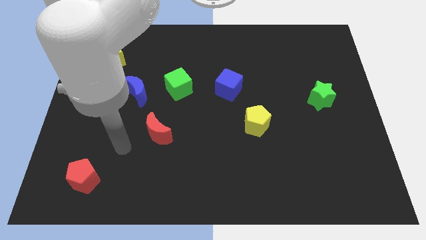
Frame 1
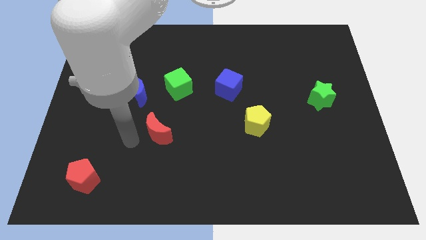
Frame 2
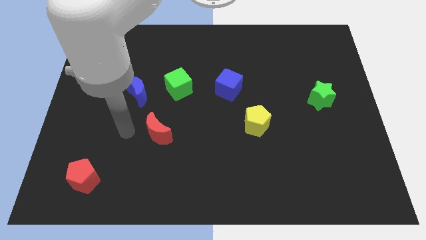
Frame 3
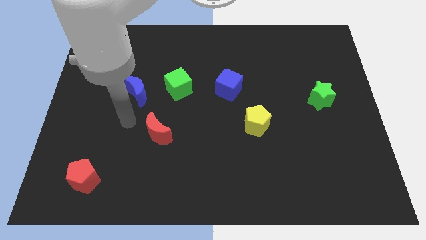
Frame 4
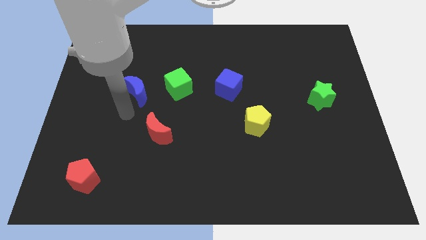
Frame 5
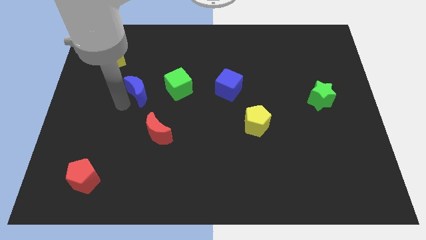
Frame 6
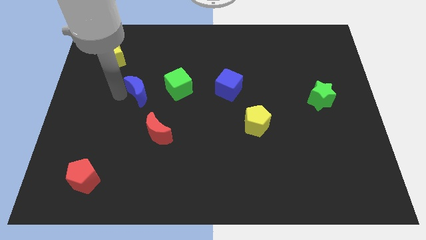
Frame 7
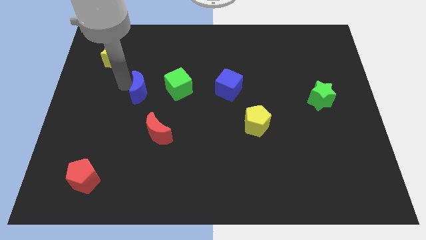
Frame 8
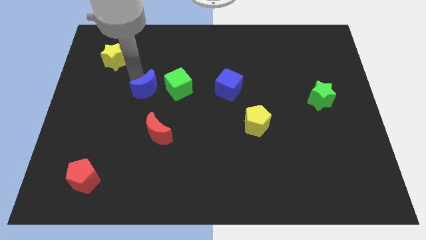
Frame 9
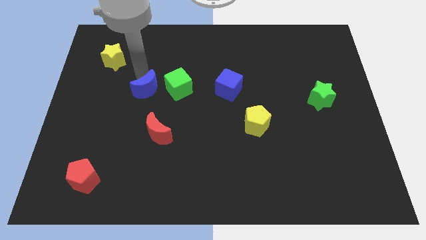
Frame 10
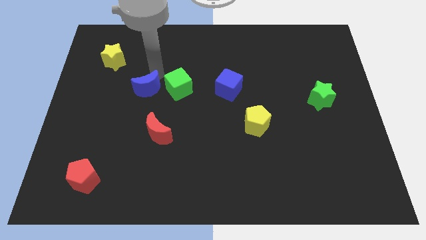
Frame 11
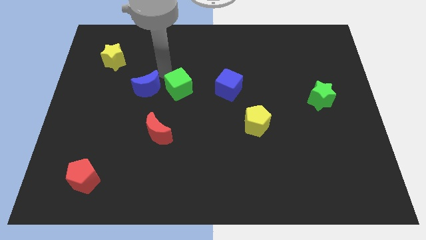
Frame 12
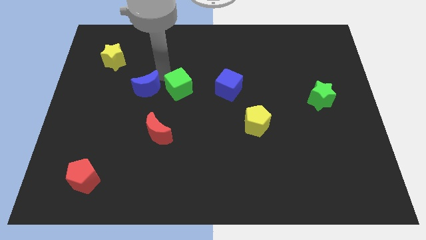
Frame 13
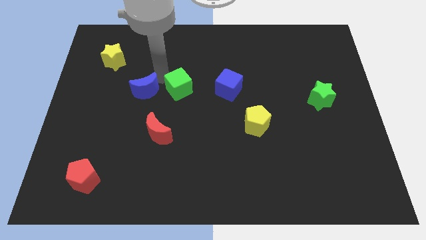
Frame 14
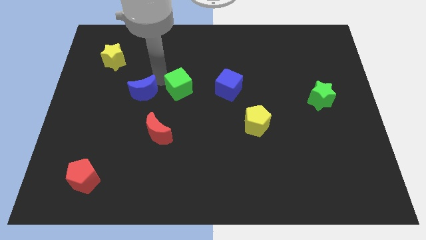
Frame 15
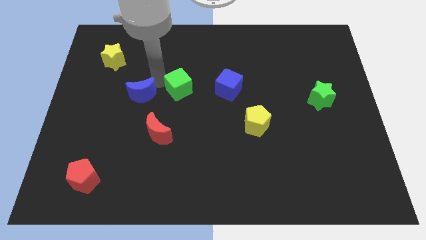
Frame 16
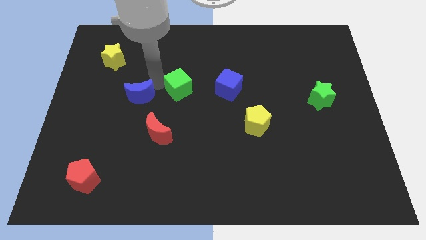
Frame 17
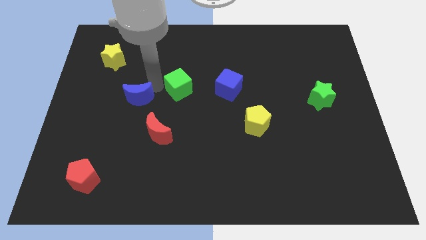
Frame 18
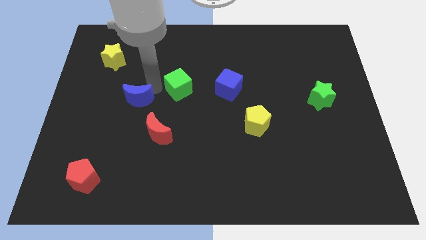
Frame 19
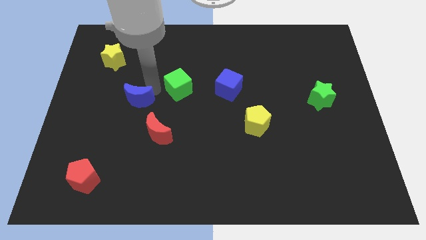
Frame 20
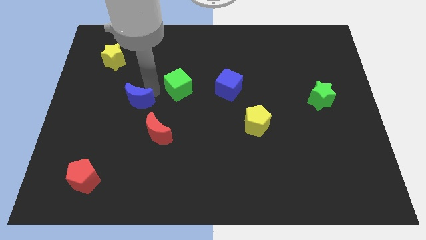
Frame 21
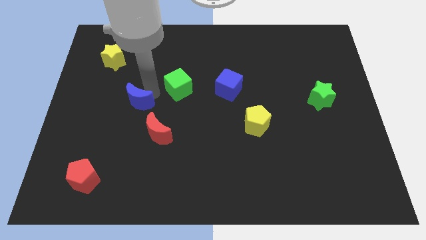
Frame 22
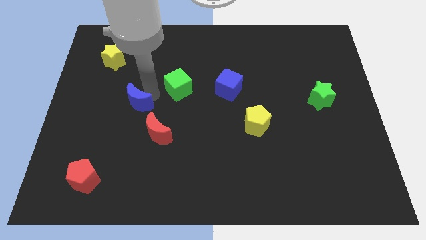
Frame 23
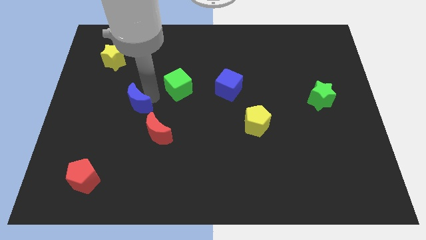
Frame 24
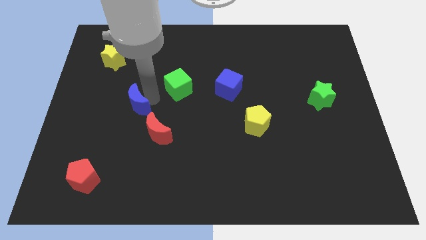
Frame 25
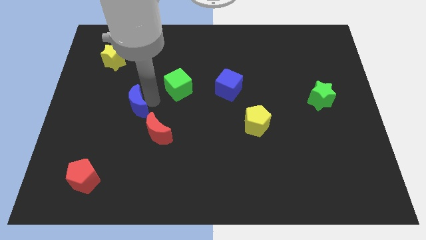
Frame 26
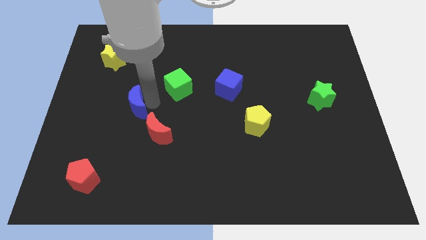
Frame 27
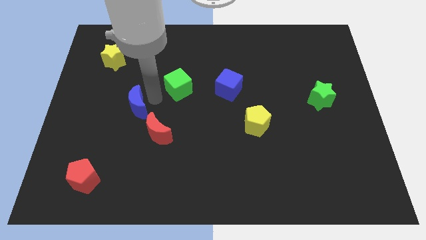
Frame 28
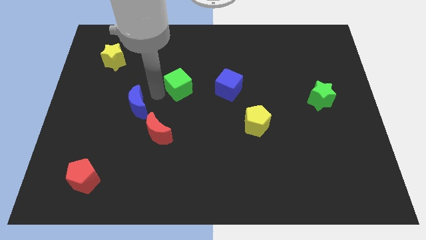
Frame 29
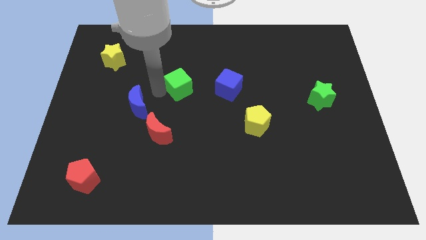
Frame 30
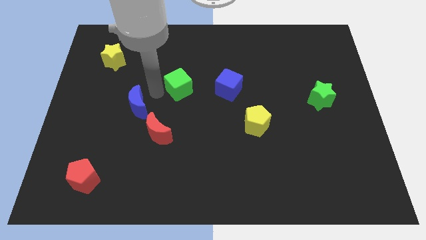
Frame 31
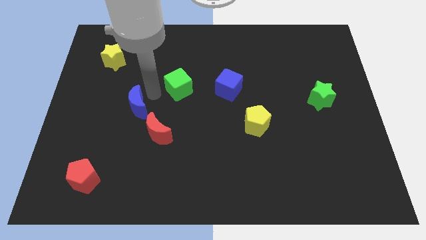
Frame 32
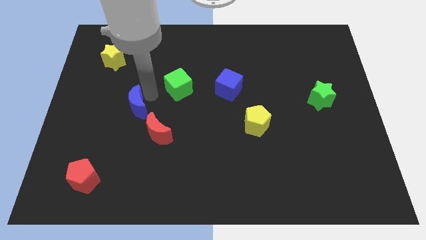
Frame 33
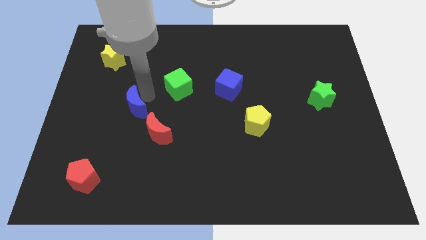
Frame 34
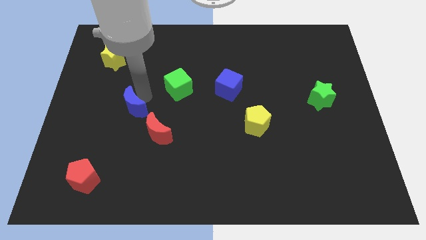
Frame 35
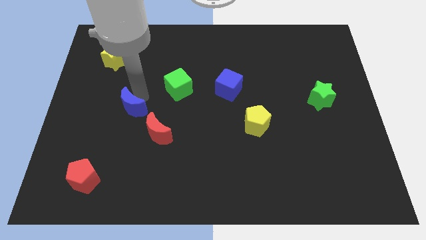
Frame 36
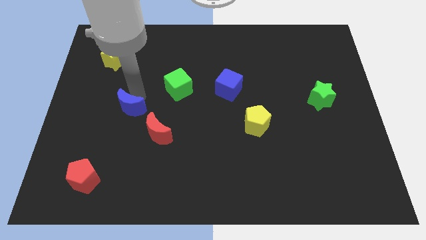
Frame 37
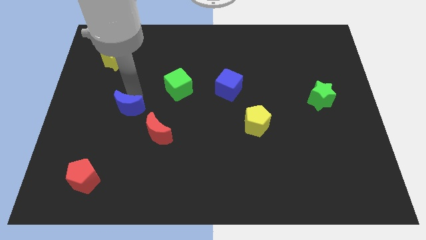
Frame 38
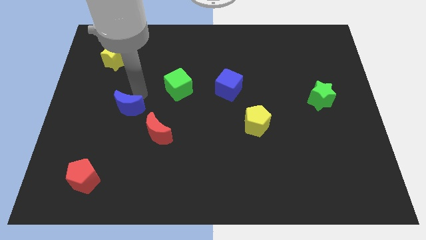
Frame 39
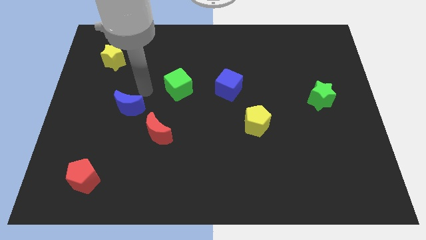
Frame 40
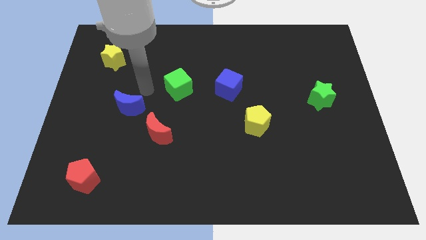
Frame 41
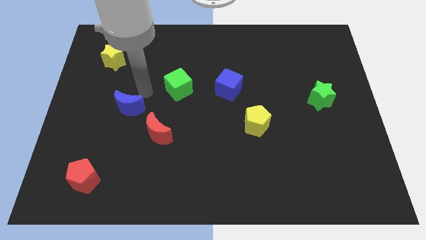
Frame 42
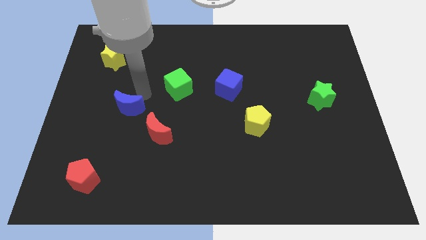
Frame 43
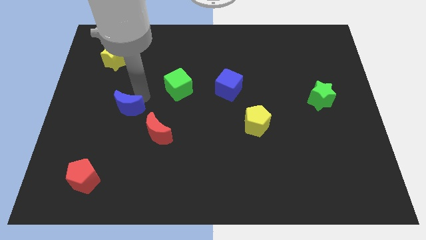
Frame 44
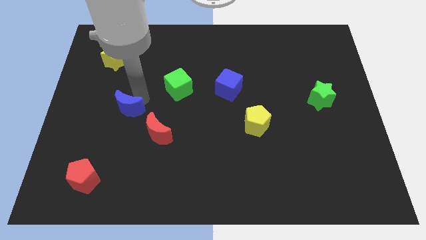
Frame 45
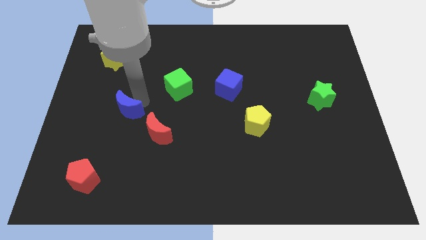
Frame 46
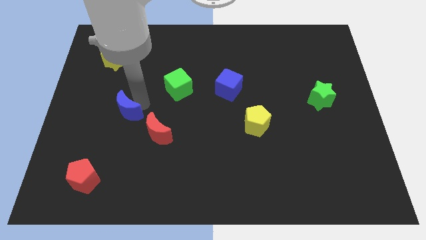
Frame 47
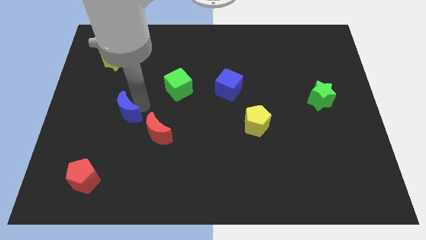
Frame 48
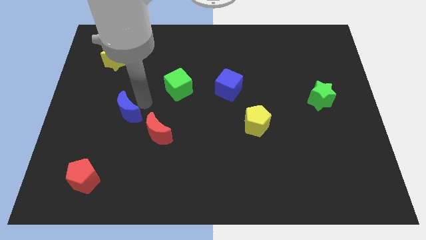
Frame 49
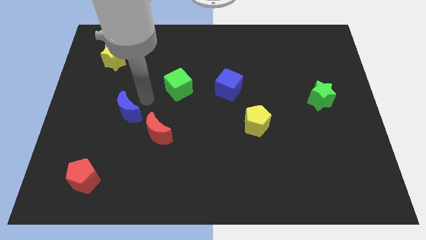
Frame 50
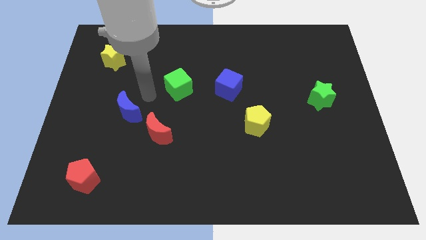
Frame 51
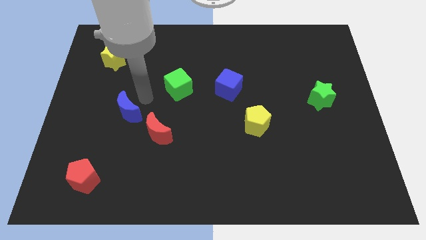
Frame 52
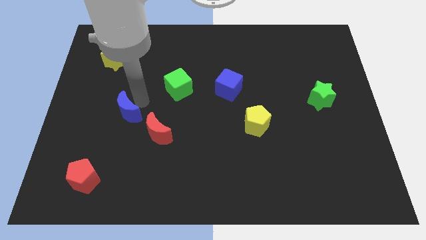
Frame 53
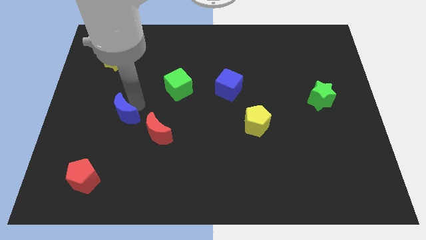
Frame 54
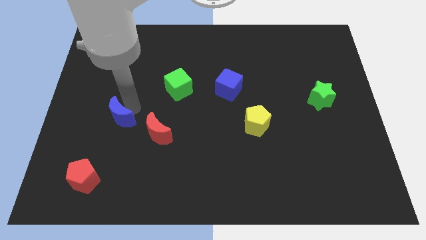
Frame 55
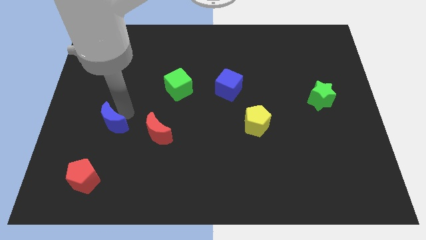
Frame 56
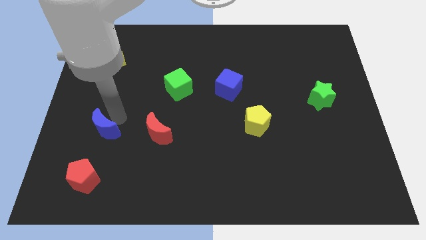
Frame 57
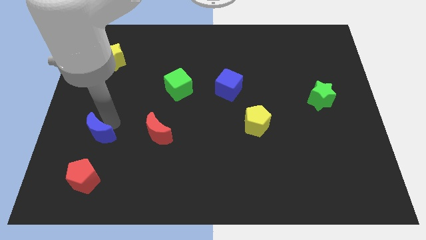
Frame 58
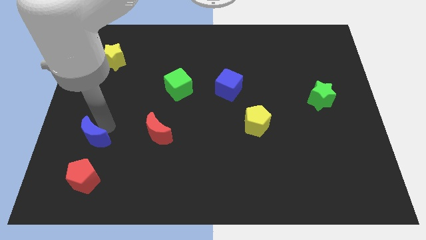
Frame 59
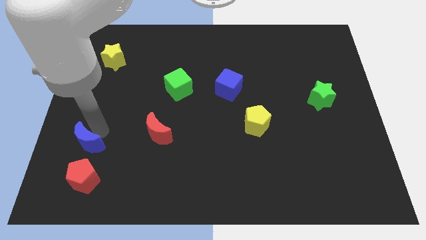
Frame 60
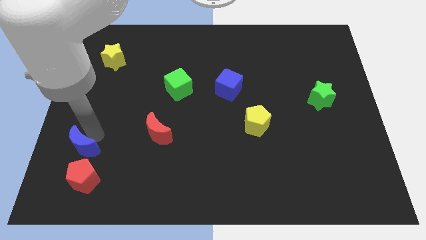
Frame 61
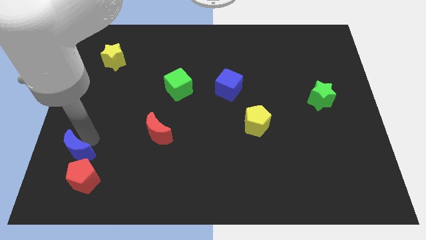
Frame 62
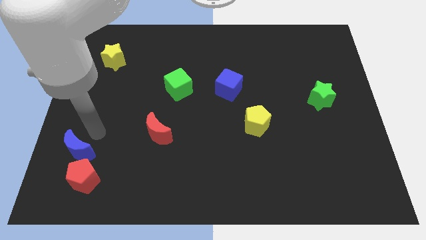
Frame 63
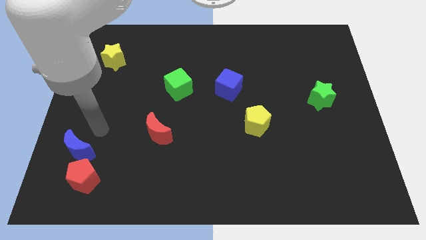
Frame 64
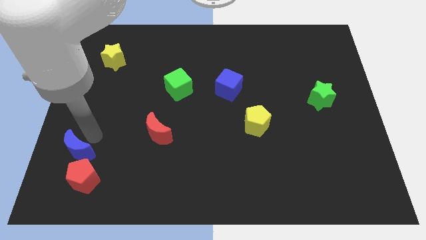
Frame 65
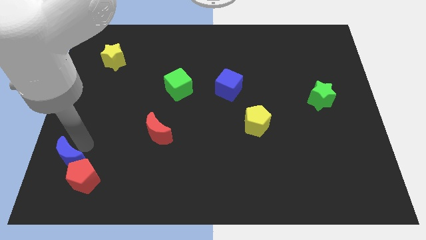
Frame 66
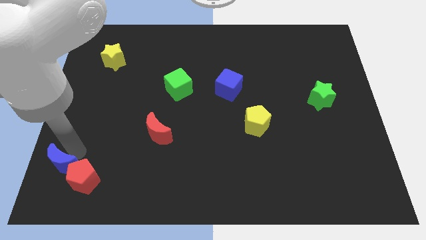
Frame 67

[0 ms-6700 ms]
put the blue moon to the bottom left
